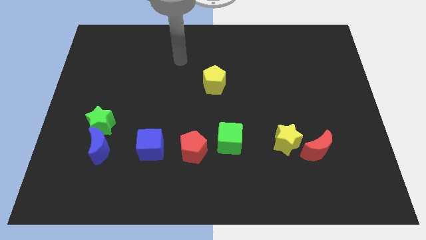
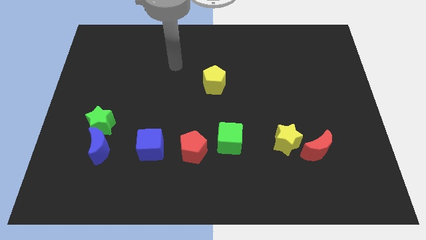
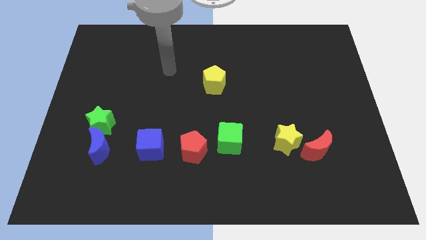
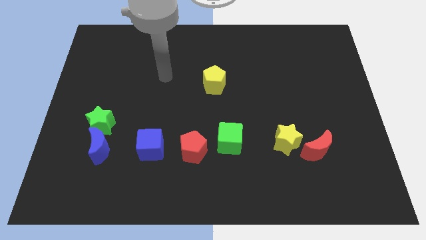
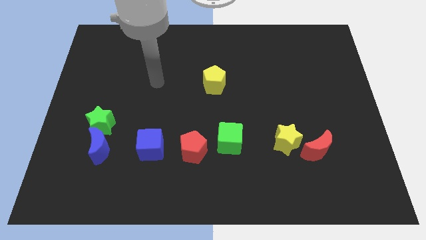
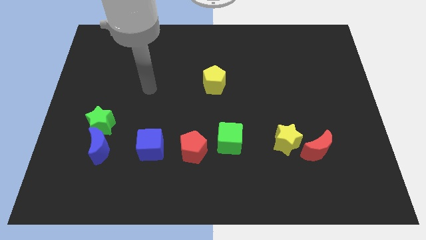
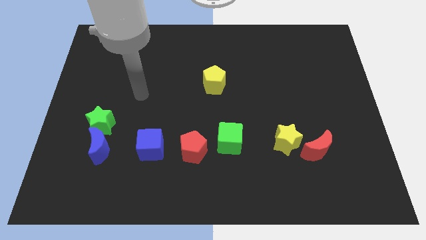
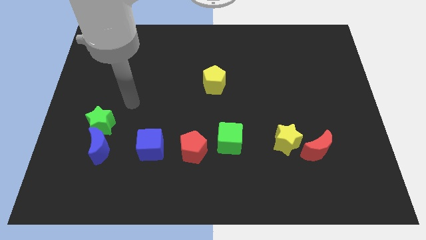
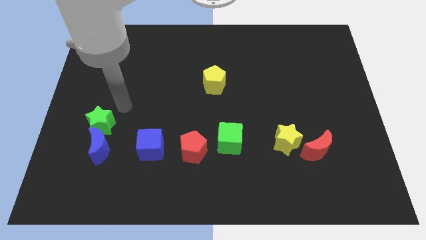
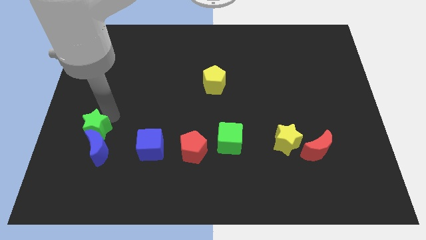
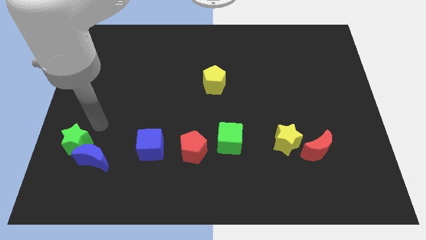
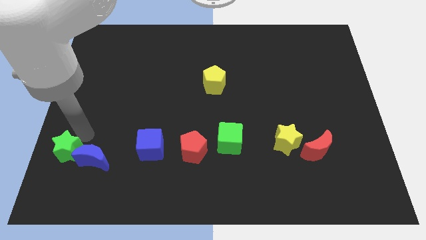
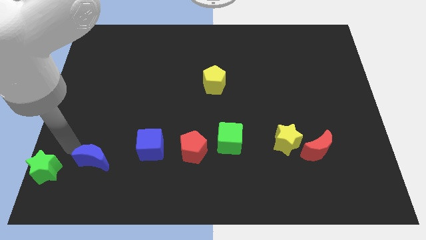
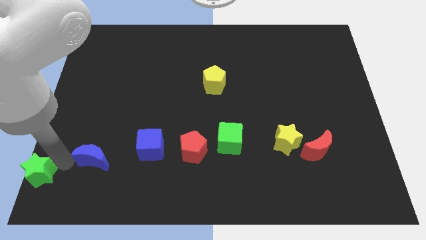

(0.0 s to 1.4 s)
separate the blue moon from the green star
